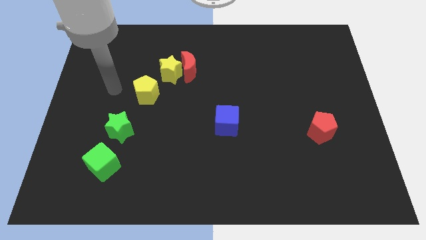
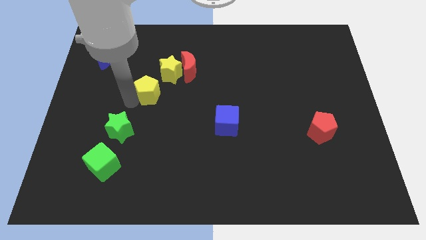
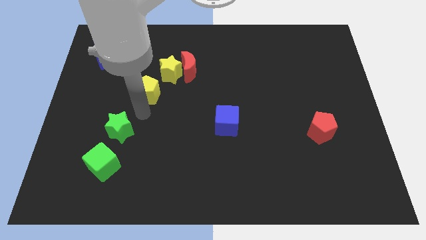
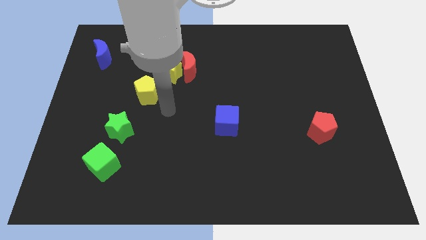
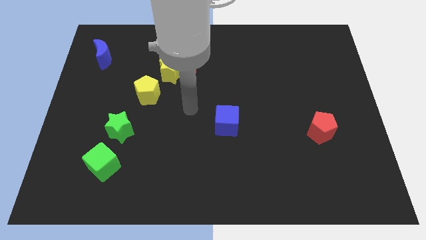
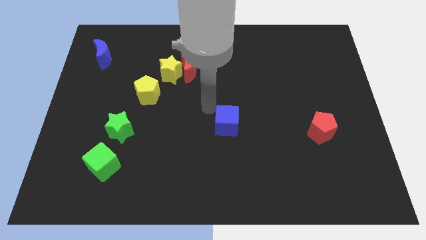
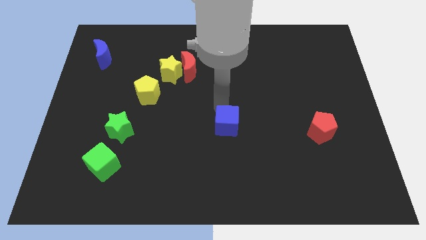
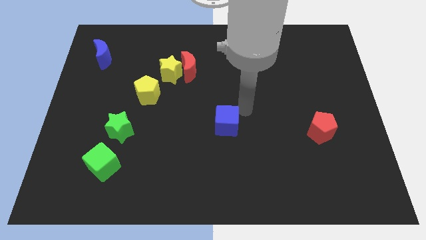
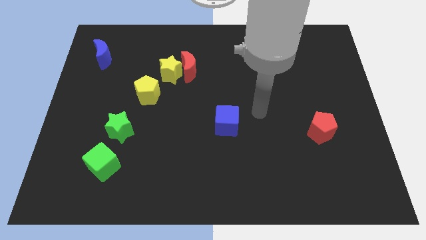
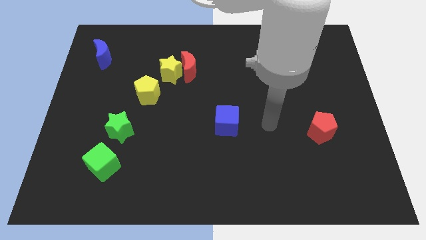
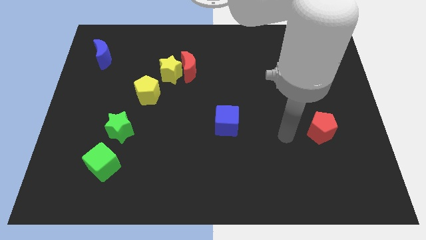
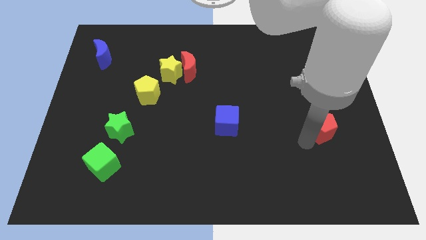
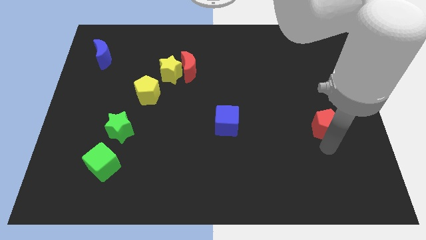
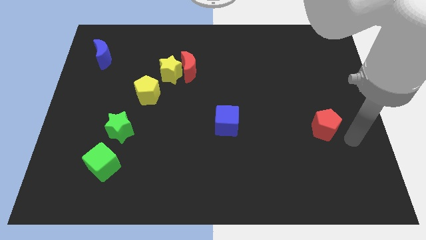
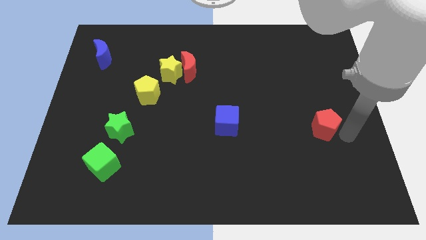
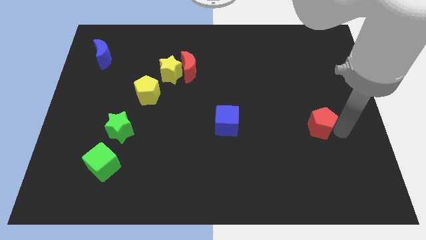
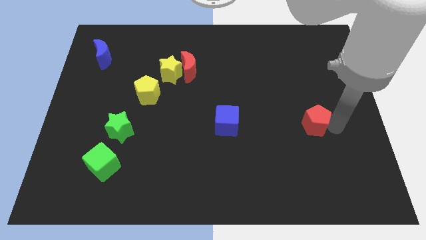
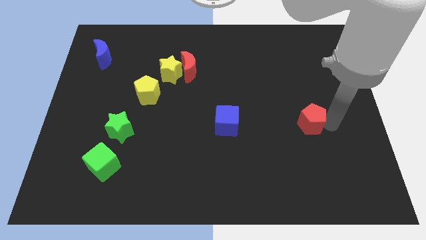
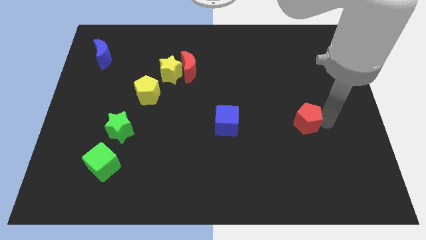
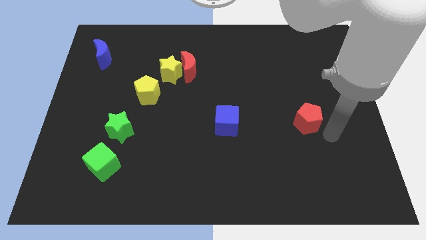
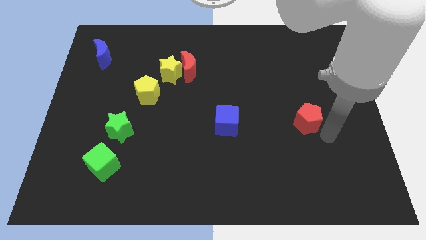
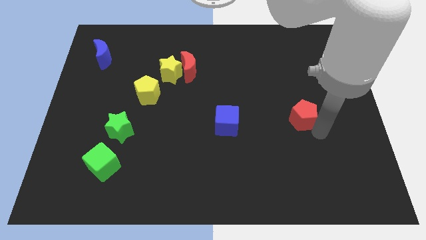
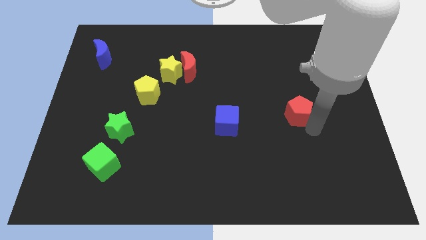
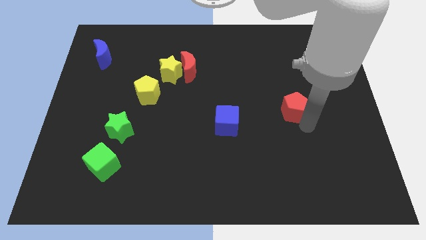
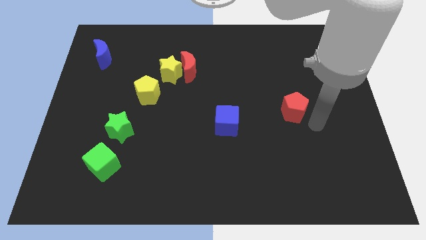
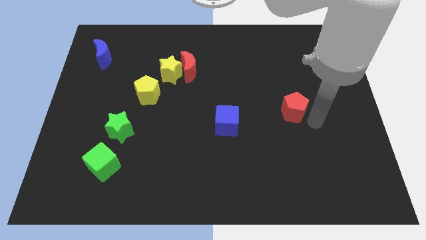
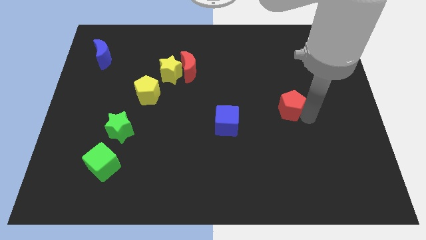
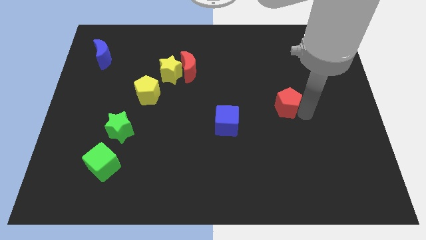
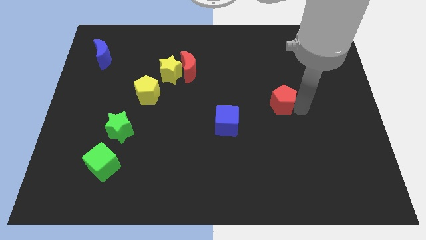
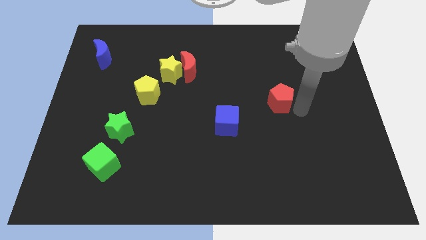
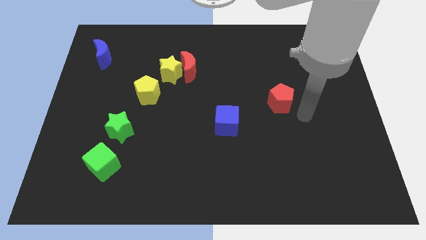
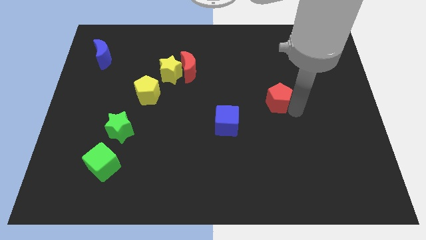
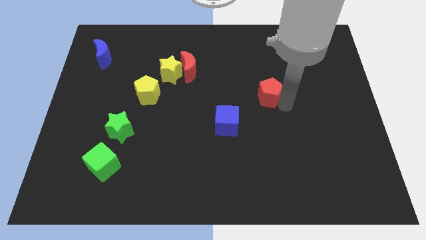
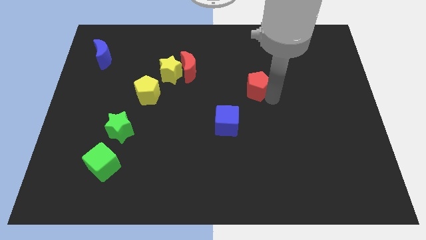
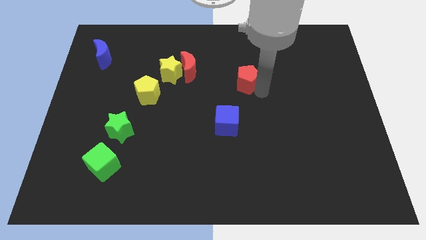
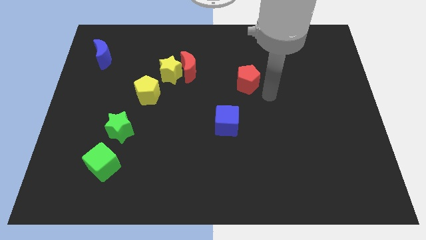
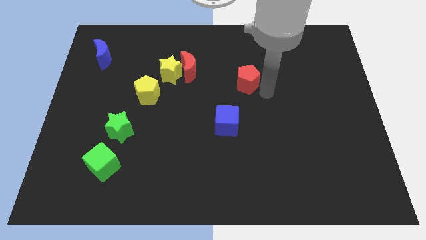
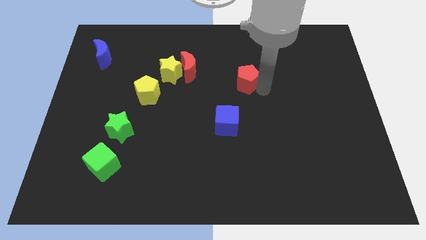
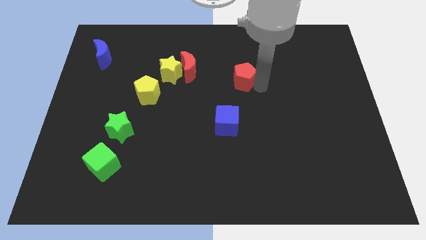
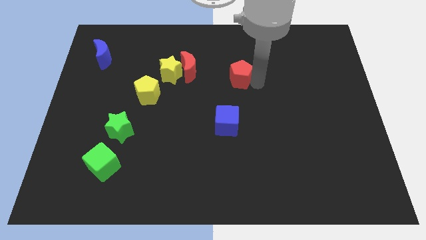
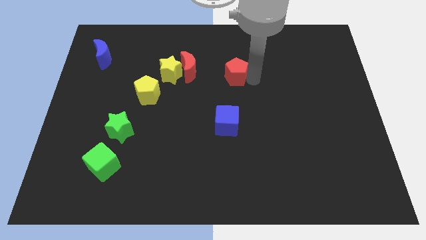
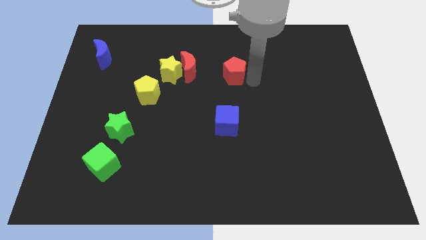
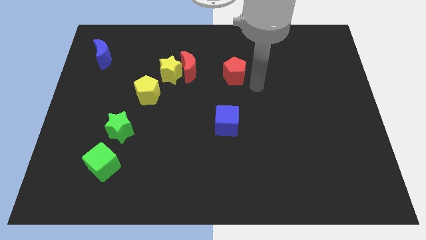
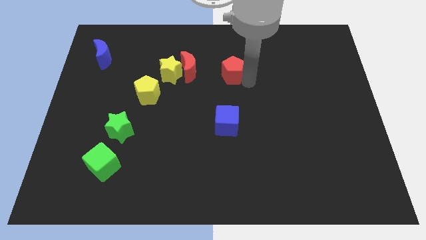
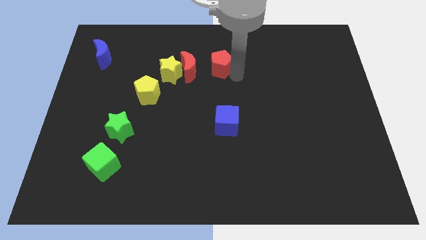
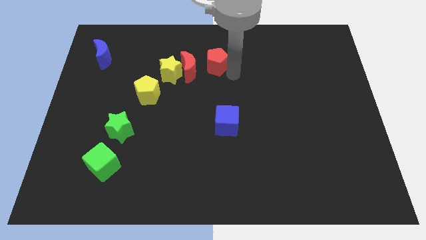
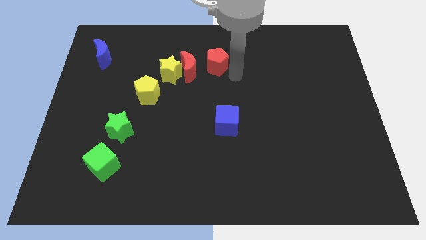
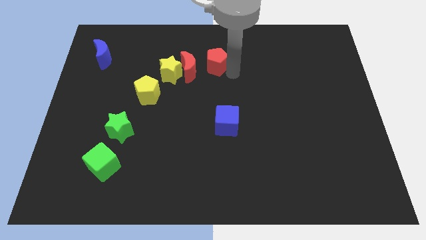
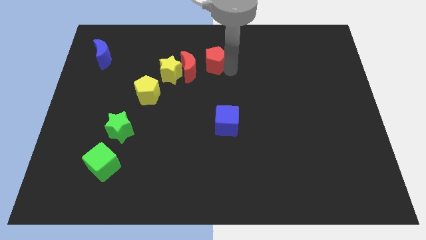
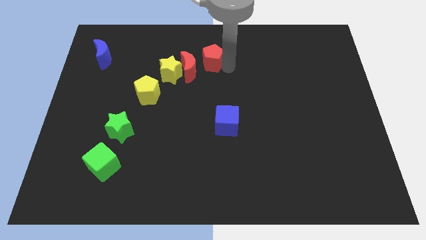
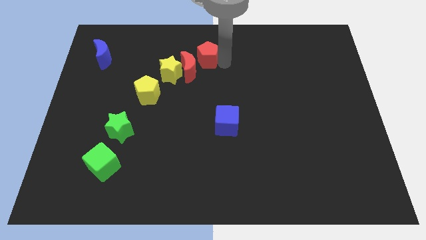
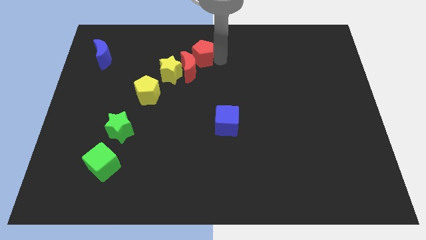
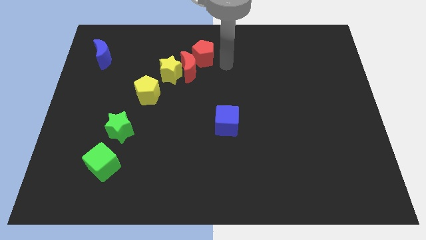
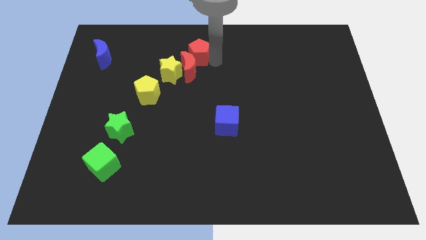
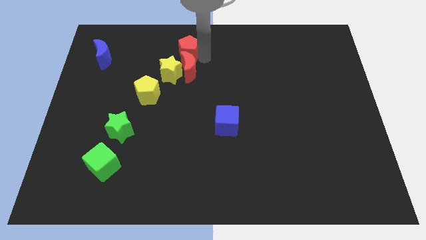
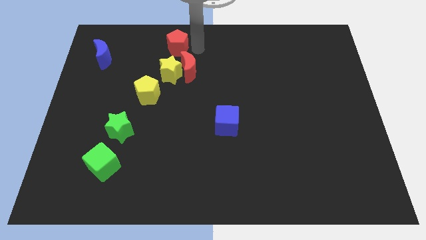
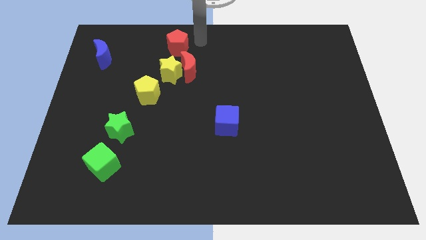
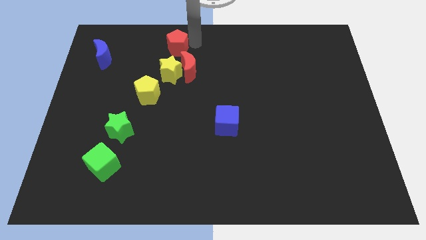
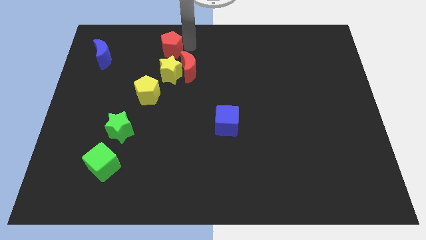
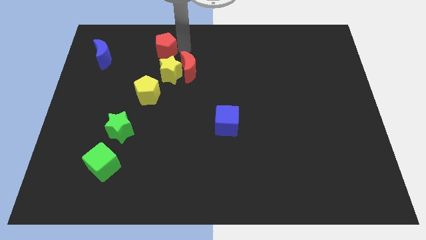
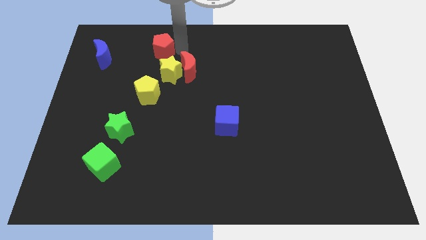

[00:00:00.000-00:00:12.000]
put the red pentagon to the right of the blue moon
